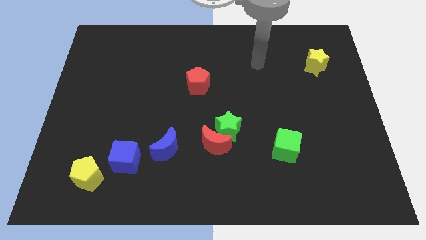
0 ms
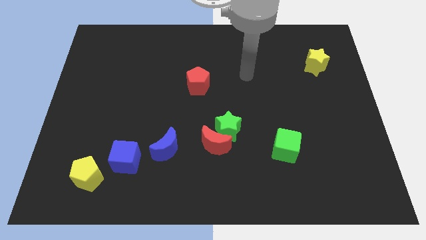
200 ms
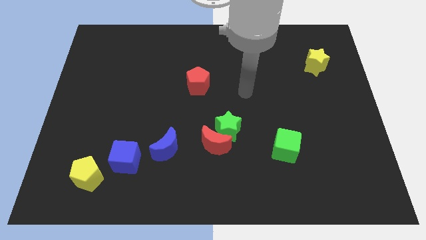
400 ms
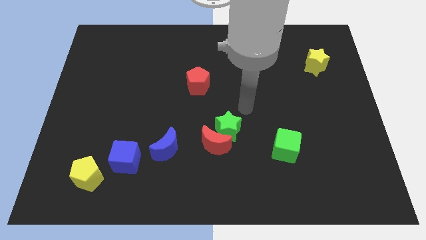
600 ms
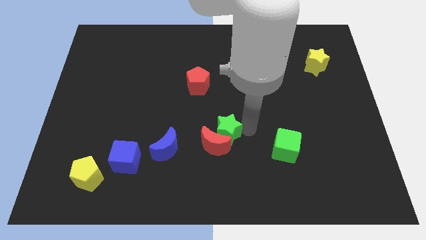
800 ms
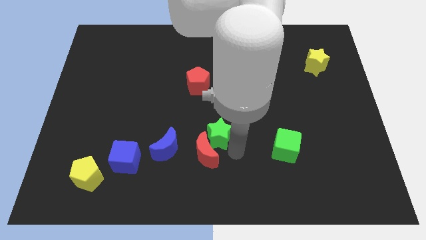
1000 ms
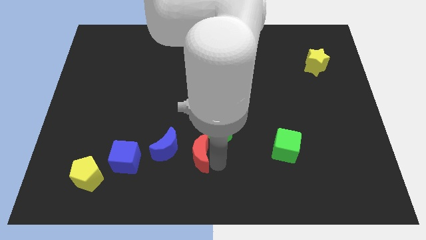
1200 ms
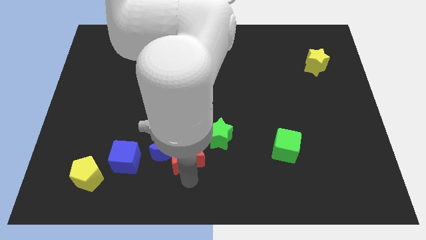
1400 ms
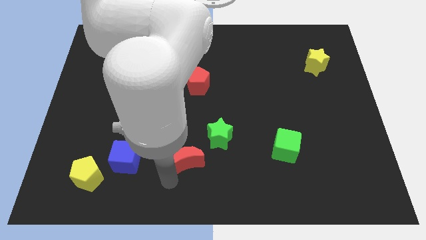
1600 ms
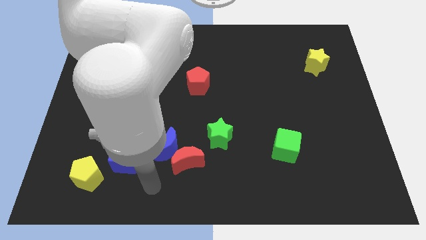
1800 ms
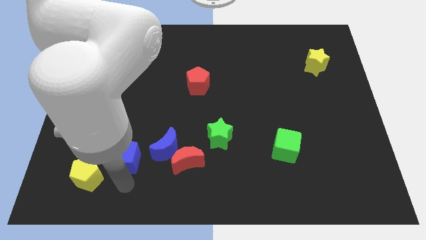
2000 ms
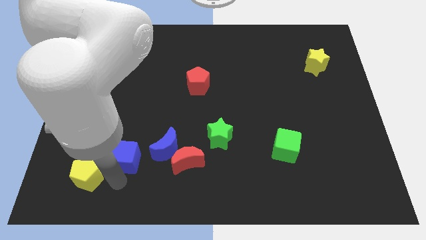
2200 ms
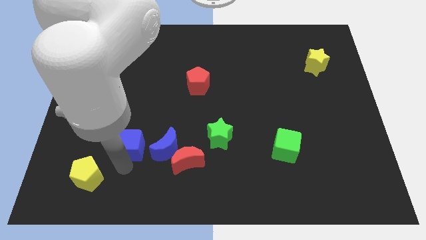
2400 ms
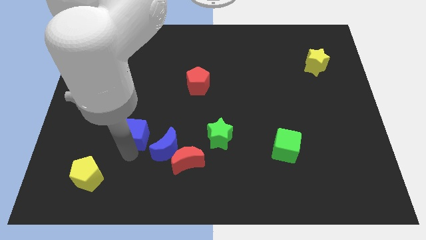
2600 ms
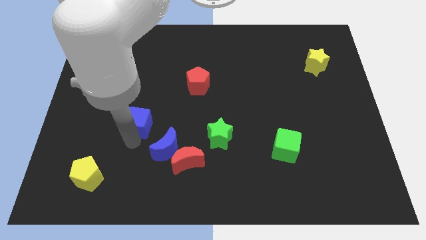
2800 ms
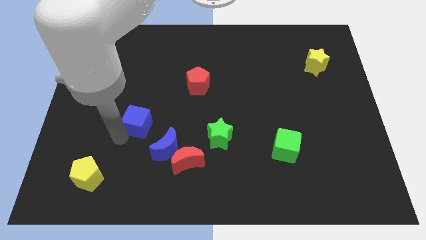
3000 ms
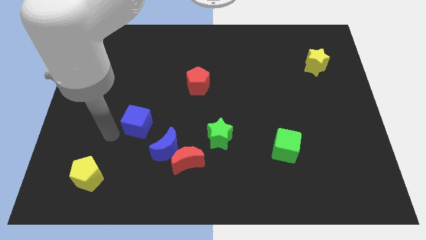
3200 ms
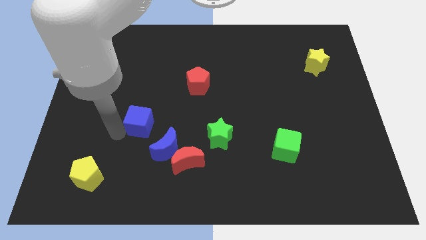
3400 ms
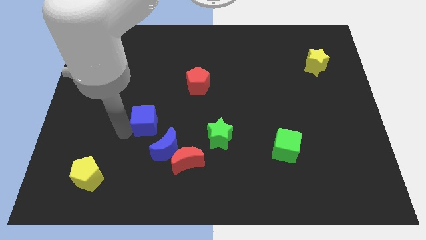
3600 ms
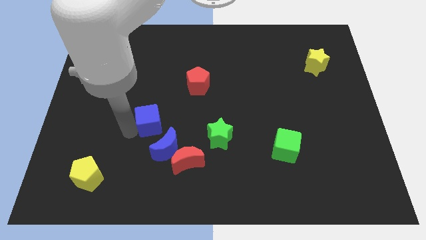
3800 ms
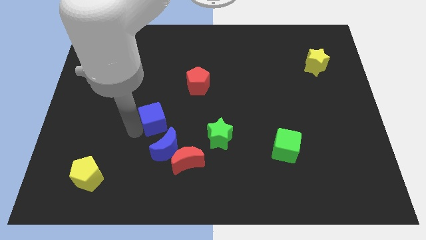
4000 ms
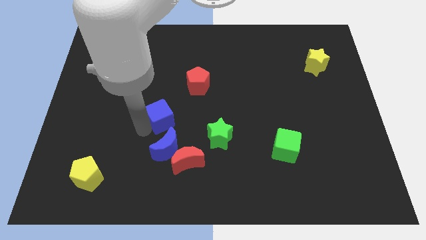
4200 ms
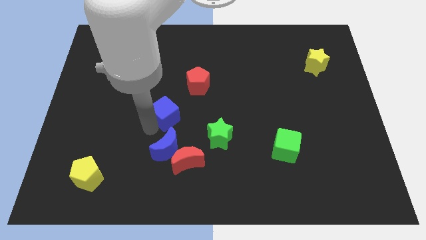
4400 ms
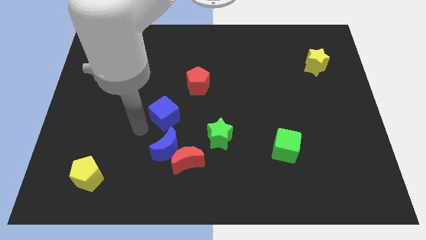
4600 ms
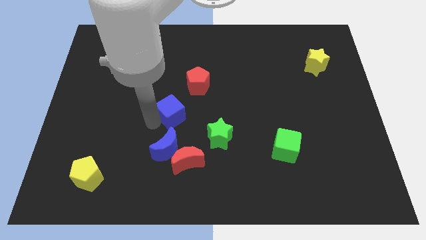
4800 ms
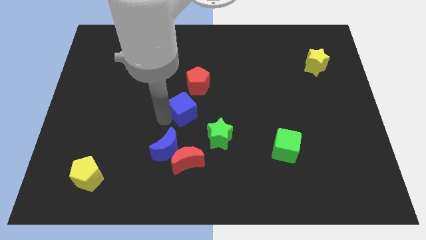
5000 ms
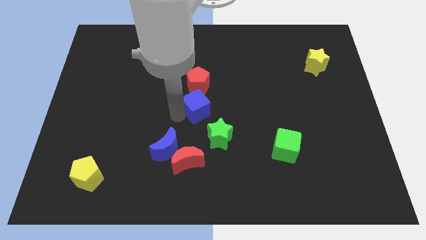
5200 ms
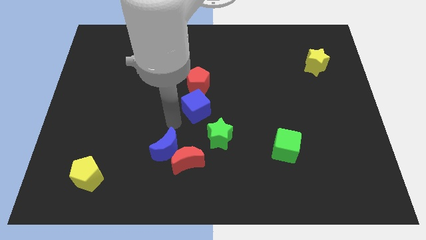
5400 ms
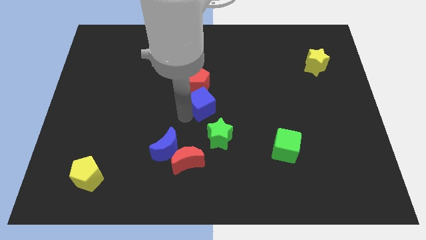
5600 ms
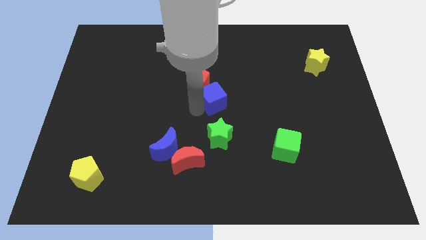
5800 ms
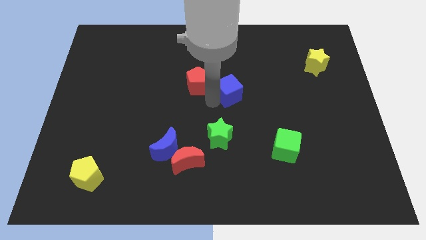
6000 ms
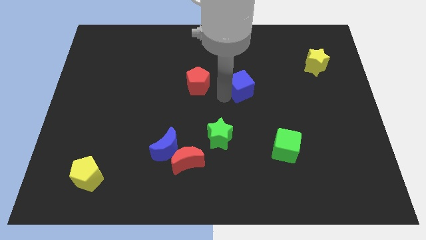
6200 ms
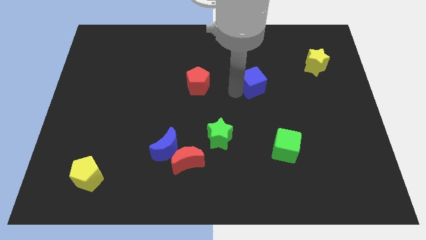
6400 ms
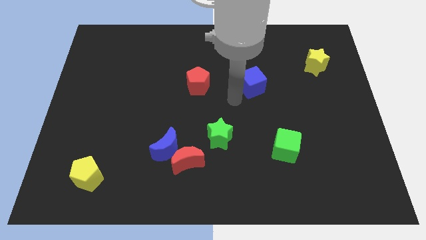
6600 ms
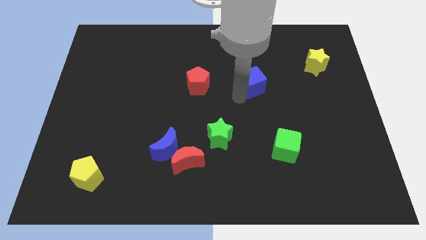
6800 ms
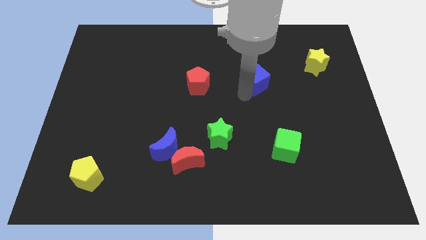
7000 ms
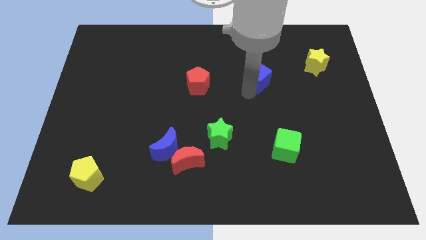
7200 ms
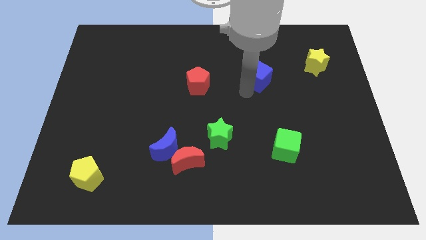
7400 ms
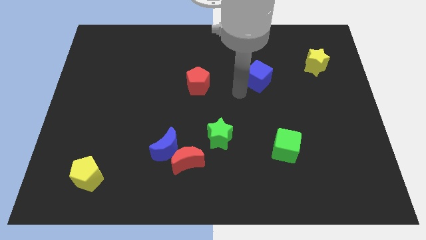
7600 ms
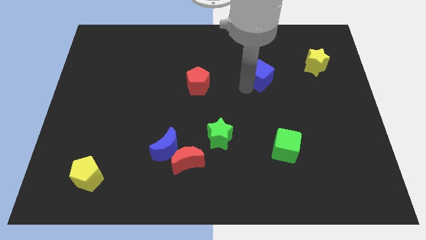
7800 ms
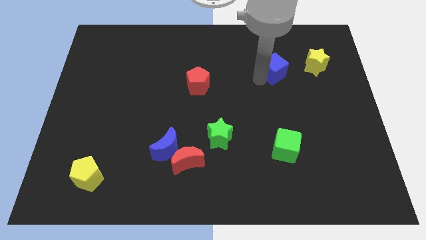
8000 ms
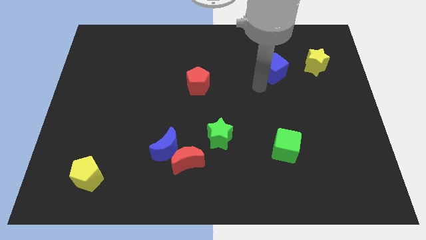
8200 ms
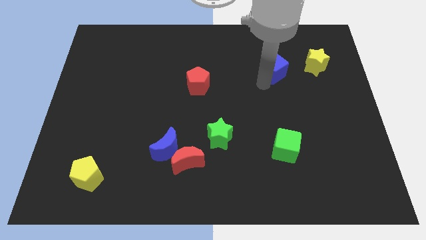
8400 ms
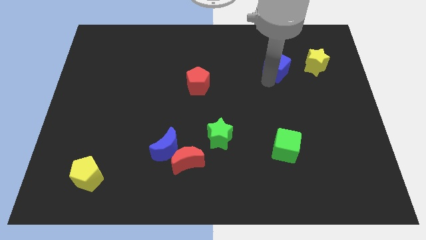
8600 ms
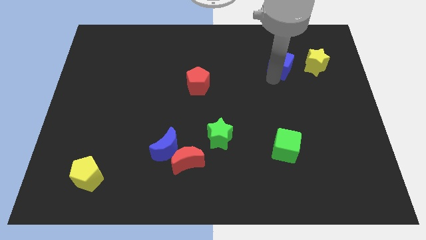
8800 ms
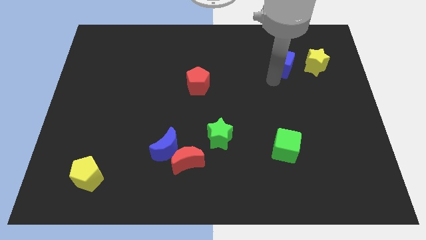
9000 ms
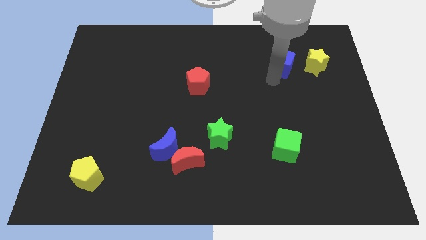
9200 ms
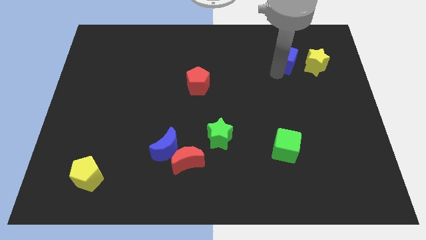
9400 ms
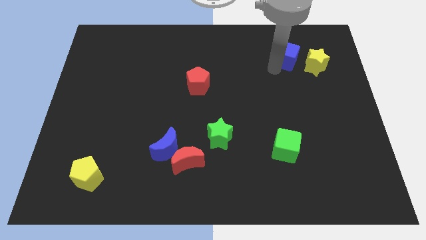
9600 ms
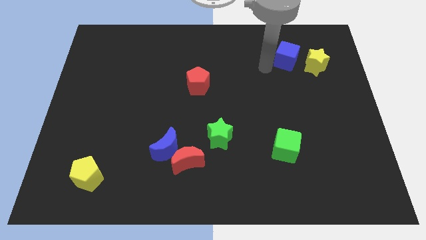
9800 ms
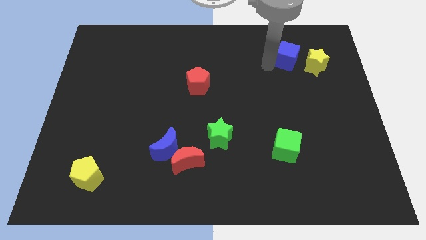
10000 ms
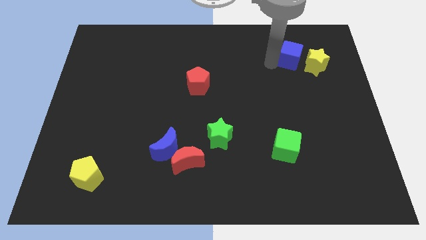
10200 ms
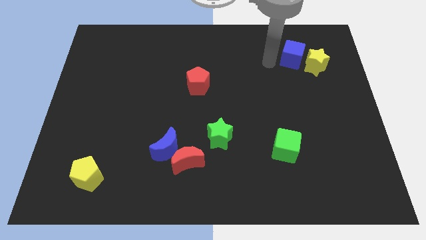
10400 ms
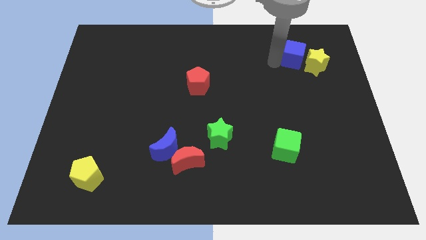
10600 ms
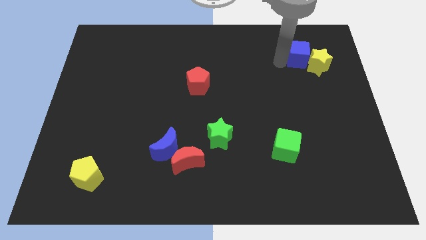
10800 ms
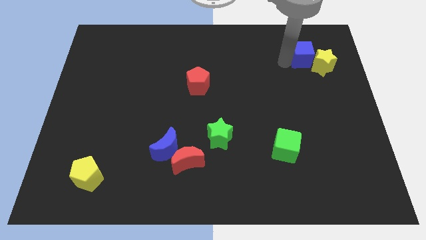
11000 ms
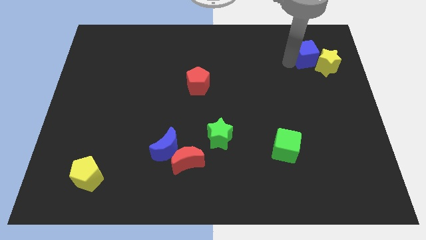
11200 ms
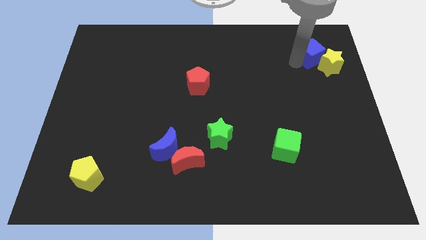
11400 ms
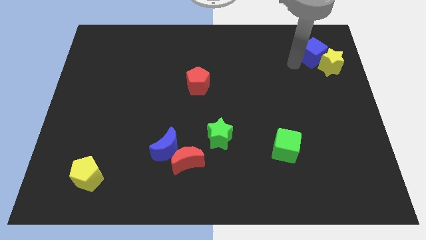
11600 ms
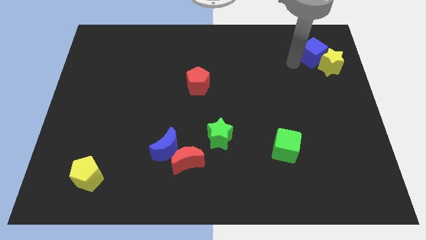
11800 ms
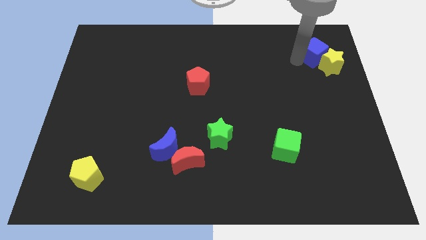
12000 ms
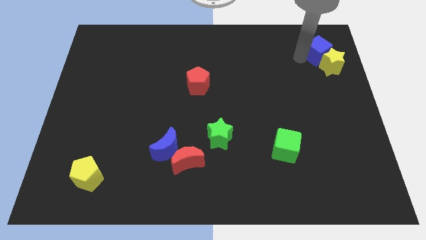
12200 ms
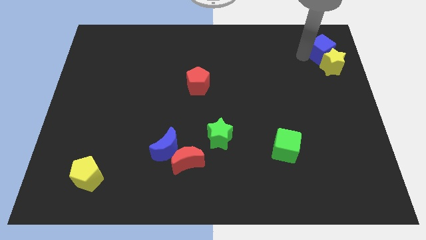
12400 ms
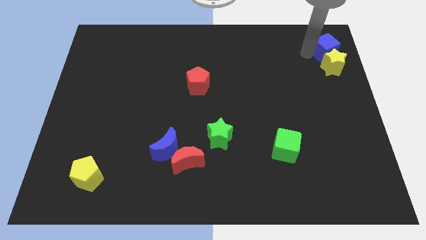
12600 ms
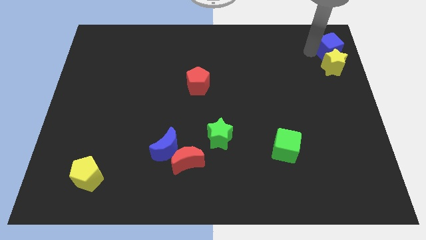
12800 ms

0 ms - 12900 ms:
push the blue cube to the upper right corner
